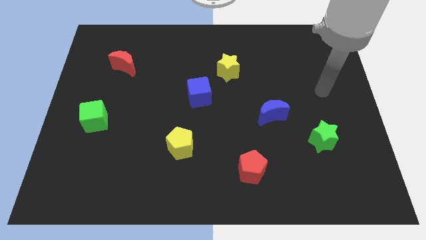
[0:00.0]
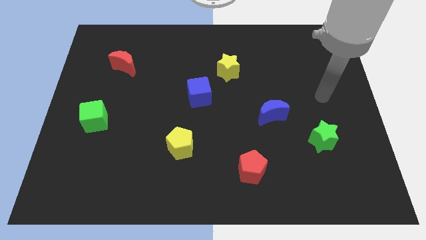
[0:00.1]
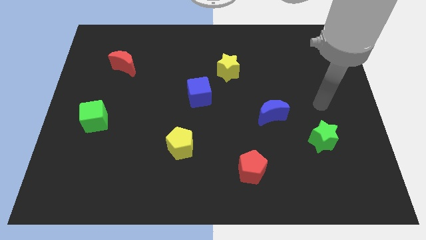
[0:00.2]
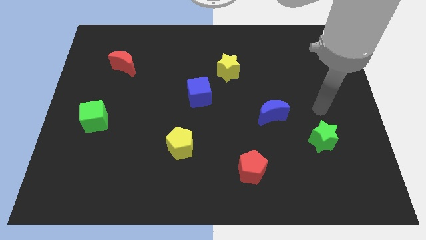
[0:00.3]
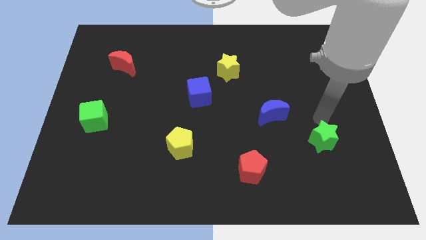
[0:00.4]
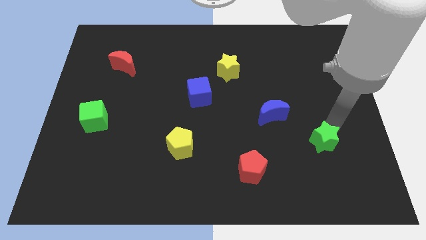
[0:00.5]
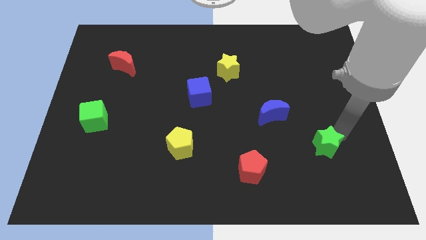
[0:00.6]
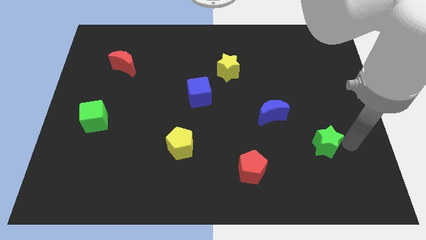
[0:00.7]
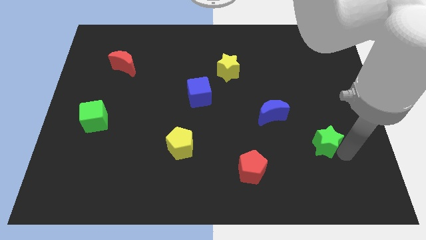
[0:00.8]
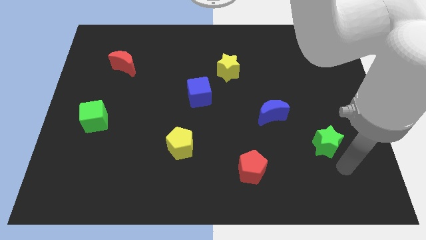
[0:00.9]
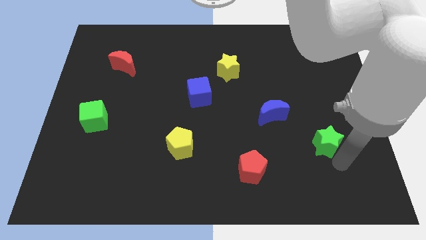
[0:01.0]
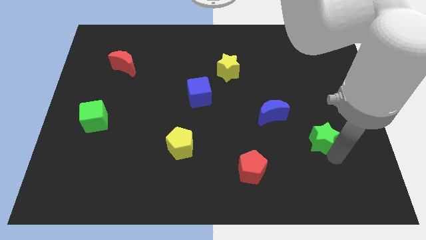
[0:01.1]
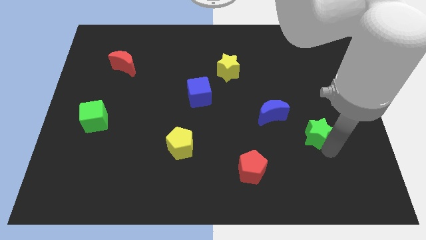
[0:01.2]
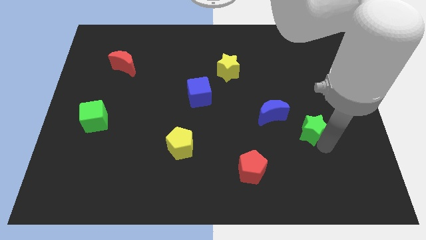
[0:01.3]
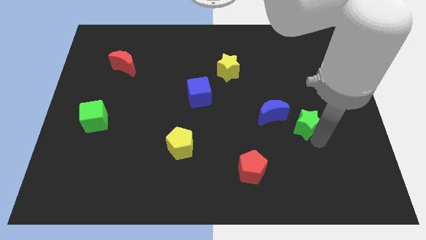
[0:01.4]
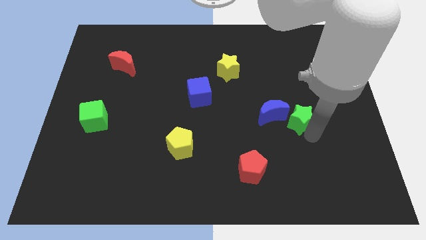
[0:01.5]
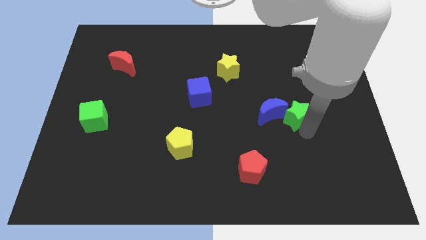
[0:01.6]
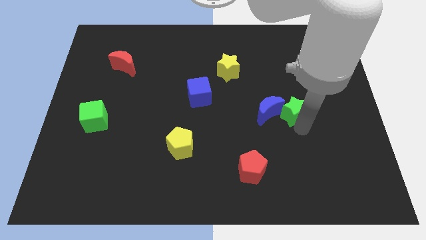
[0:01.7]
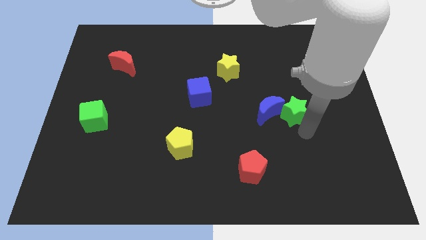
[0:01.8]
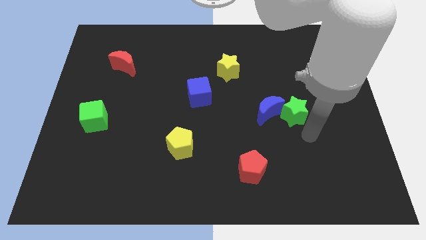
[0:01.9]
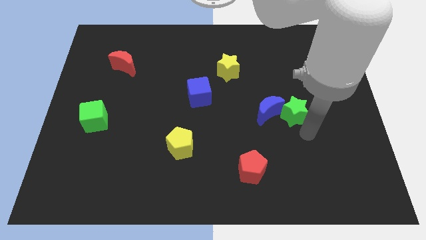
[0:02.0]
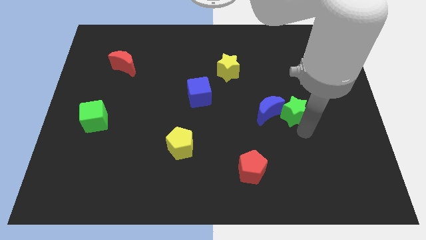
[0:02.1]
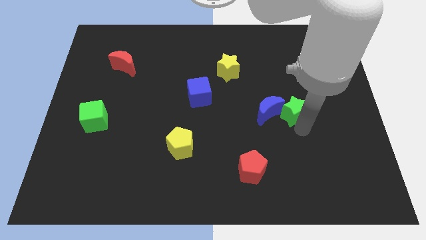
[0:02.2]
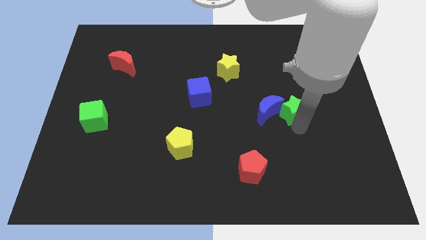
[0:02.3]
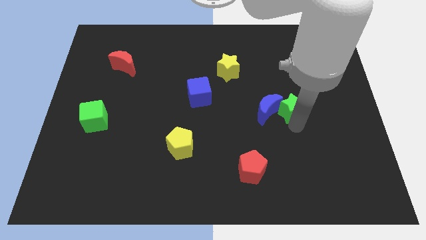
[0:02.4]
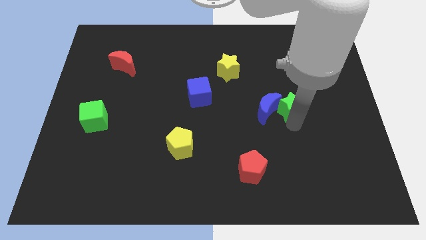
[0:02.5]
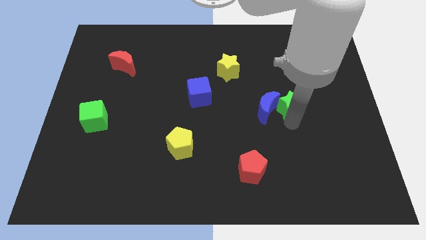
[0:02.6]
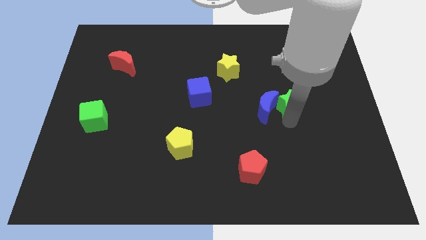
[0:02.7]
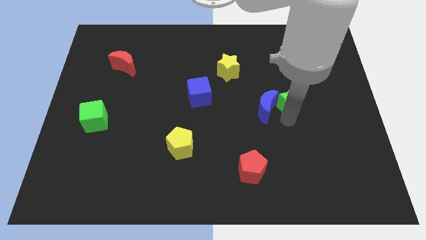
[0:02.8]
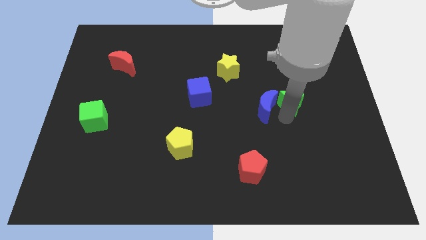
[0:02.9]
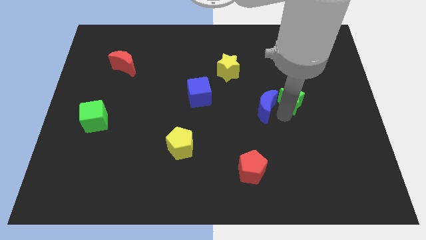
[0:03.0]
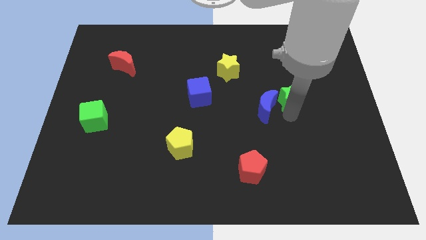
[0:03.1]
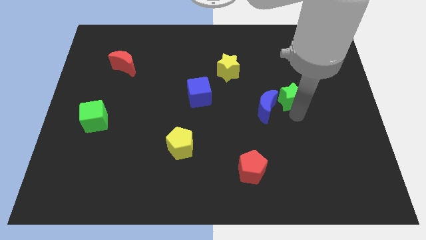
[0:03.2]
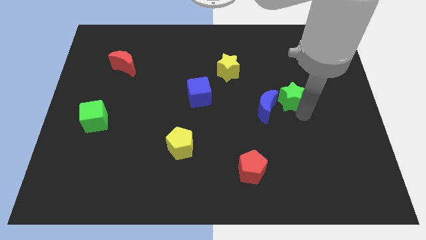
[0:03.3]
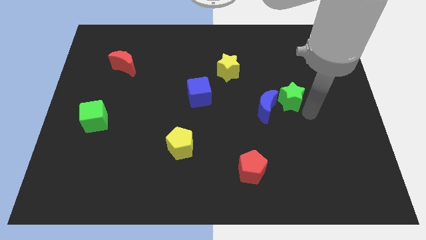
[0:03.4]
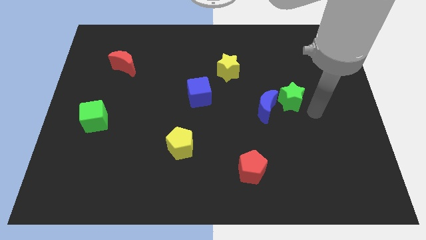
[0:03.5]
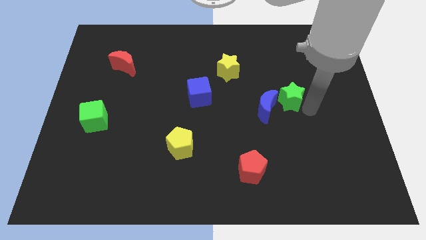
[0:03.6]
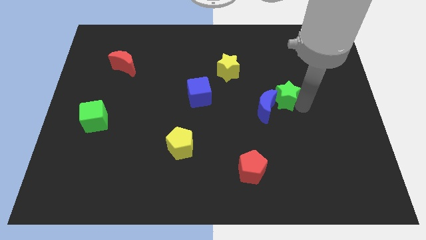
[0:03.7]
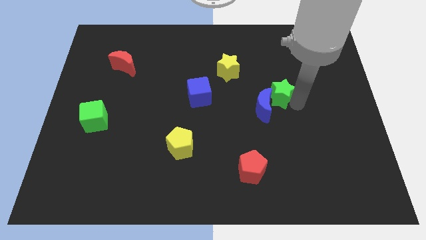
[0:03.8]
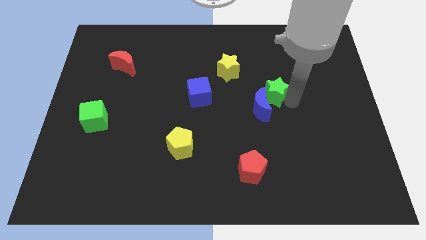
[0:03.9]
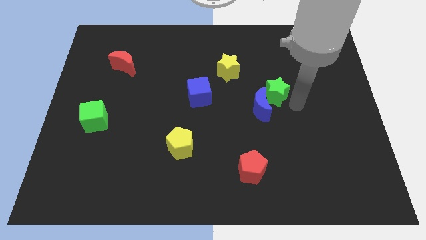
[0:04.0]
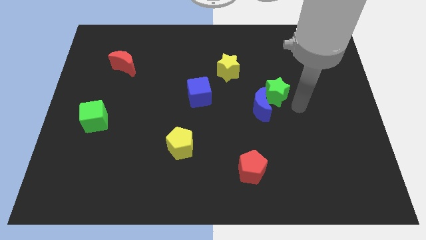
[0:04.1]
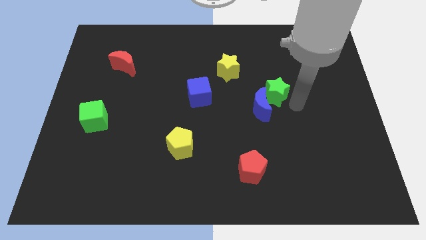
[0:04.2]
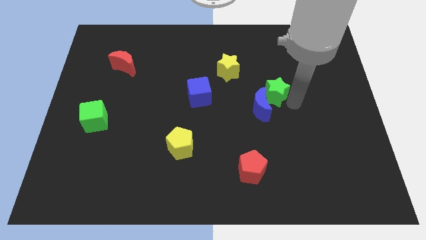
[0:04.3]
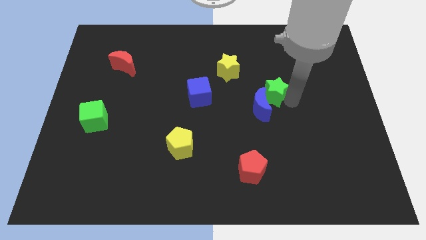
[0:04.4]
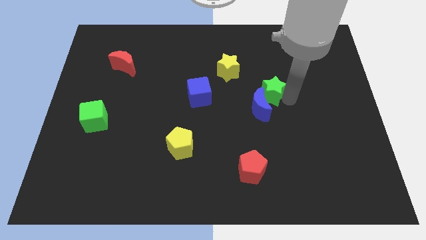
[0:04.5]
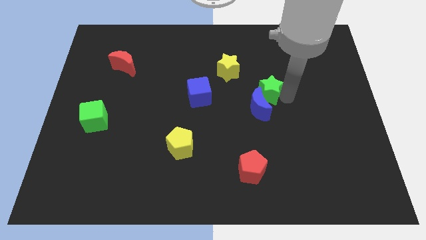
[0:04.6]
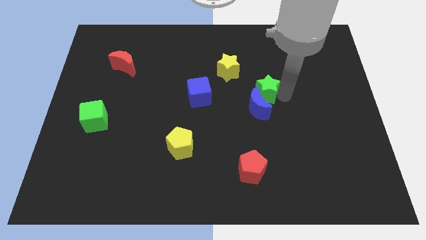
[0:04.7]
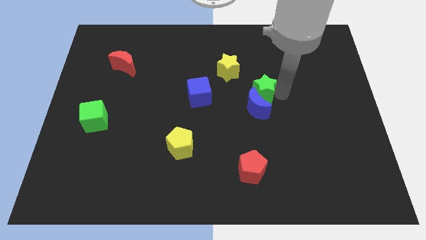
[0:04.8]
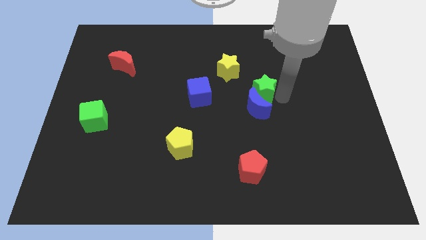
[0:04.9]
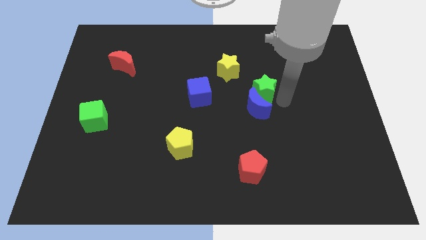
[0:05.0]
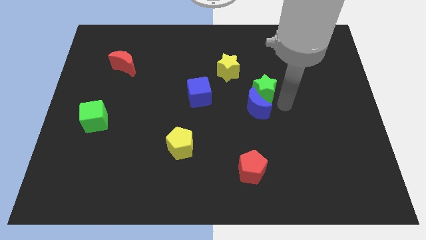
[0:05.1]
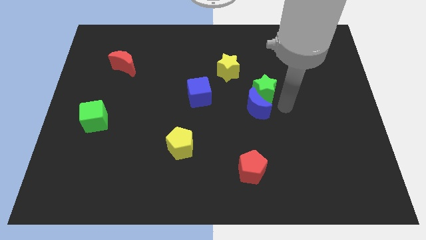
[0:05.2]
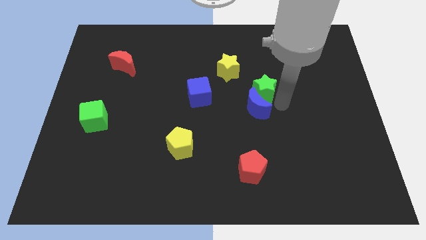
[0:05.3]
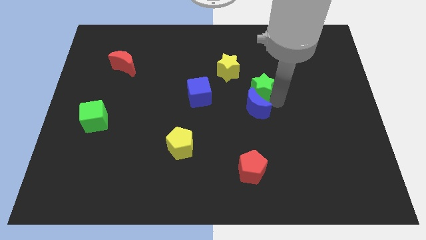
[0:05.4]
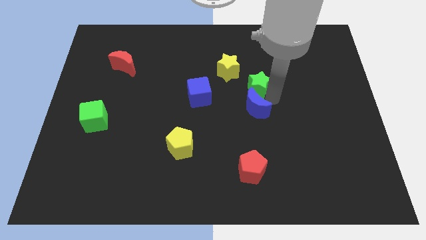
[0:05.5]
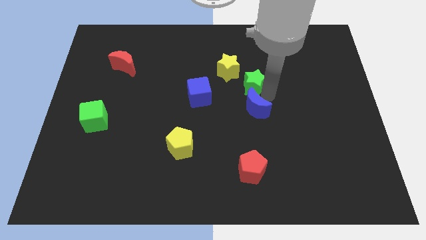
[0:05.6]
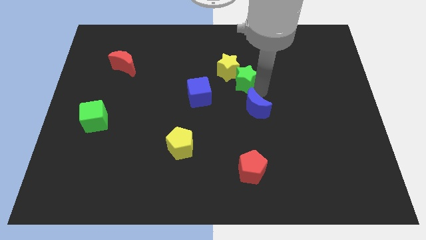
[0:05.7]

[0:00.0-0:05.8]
slide the green star close to the yellow star
